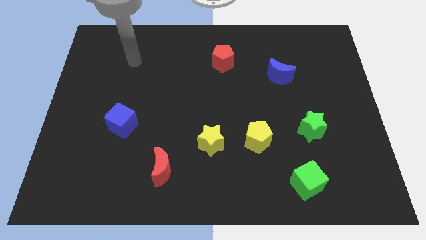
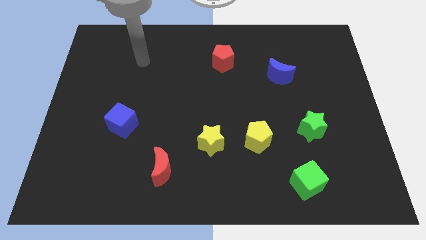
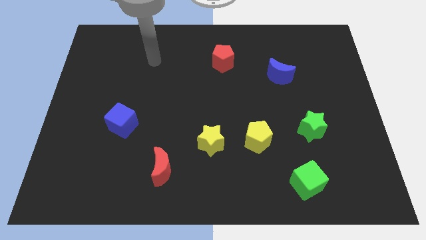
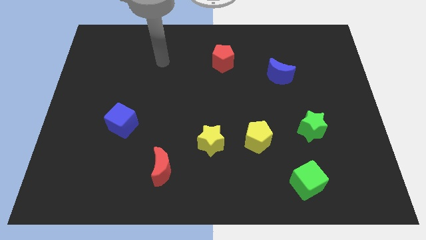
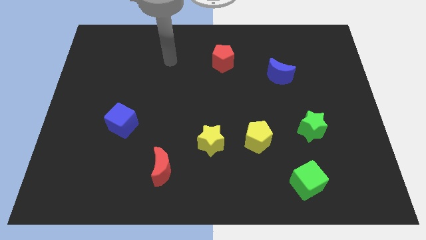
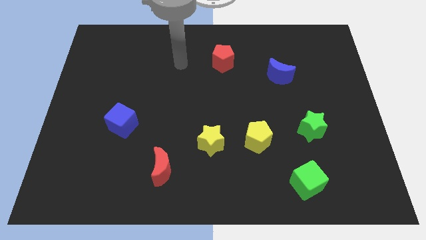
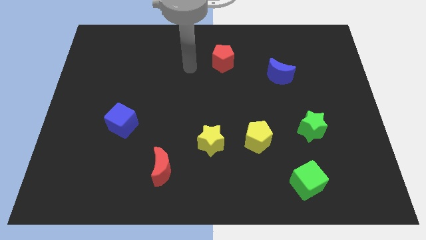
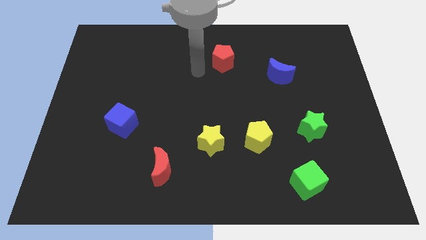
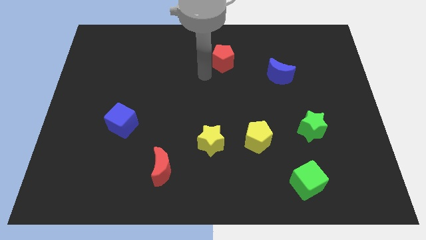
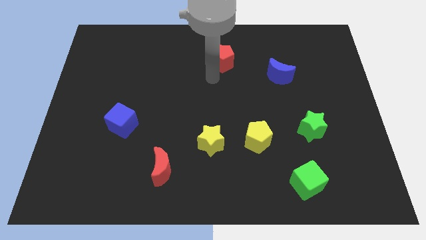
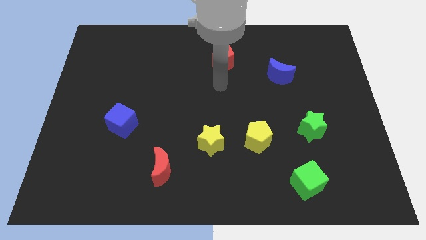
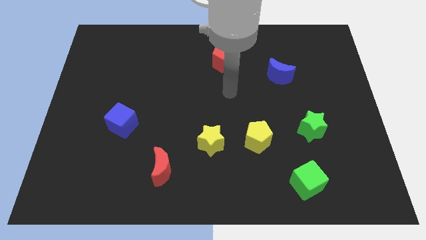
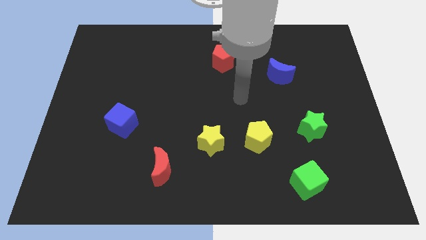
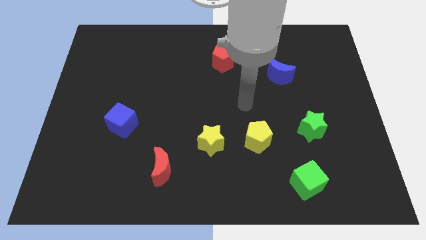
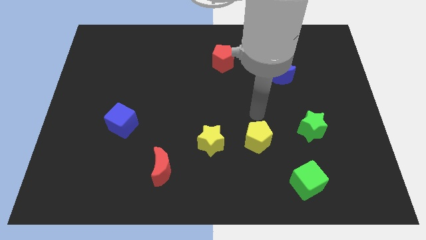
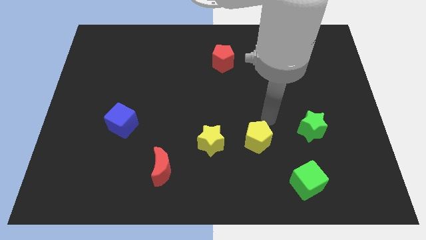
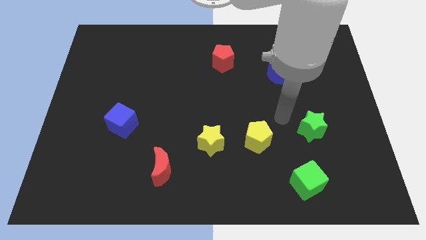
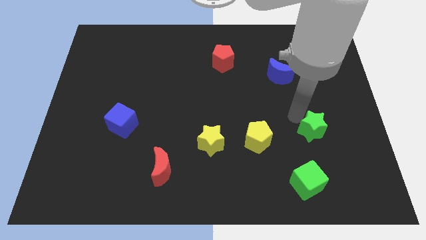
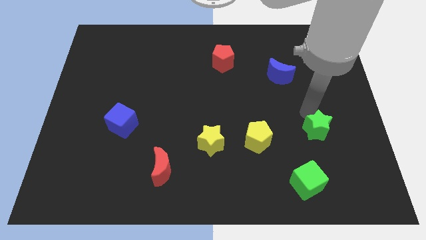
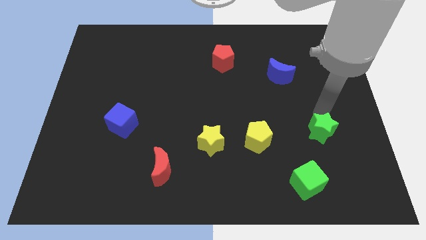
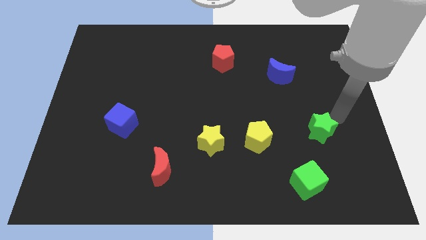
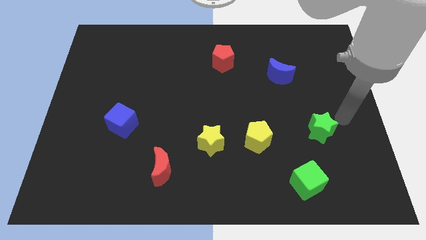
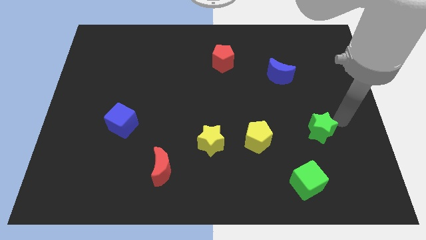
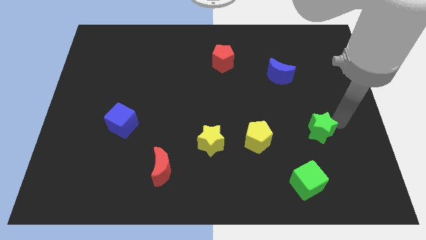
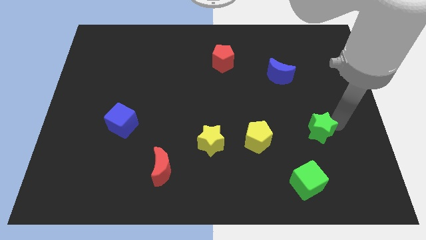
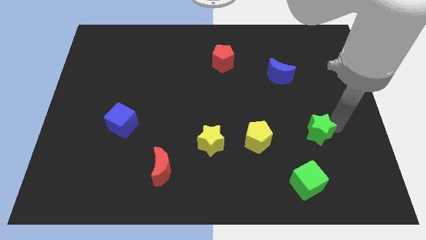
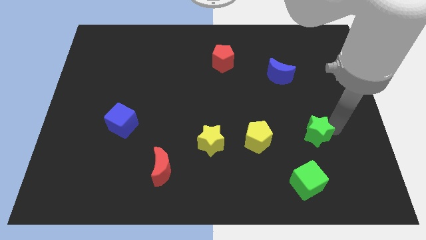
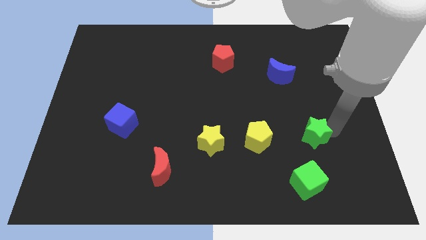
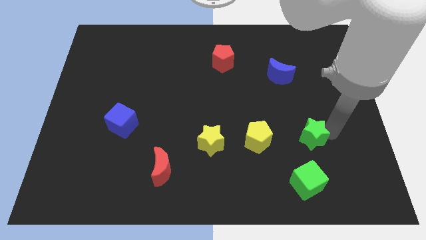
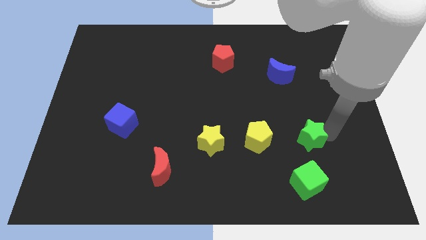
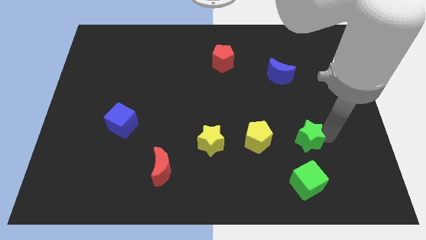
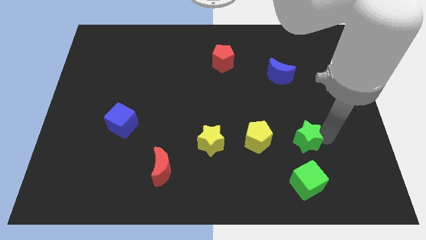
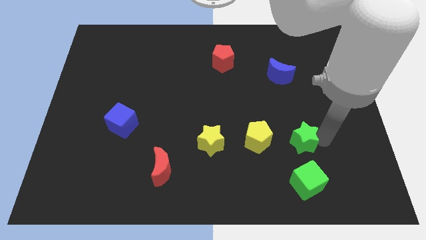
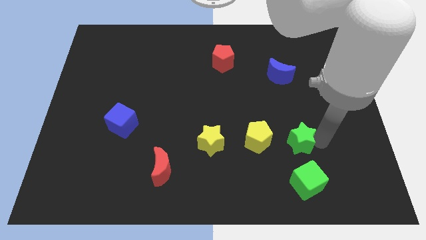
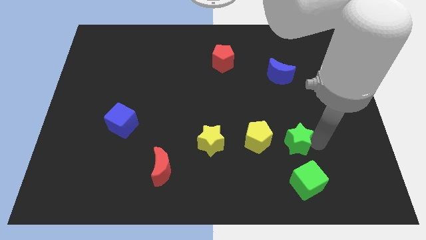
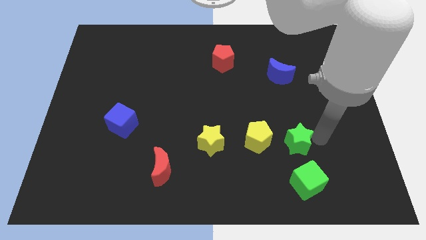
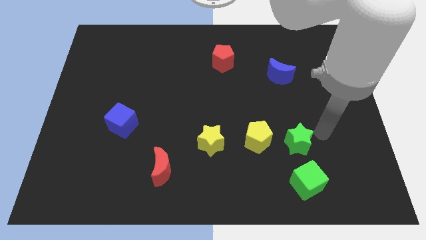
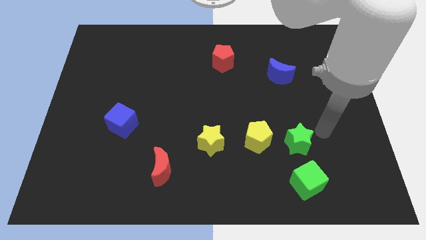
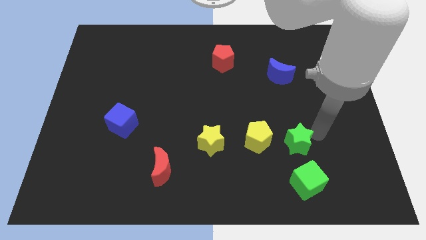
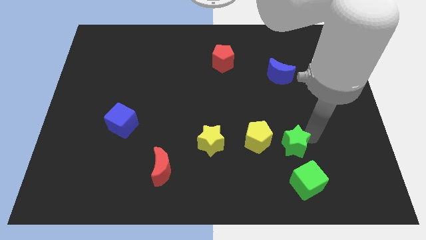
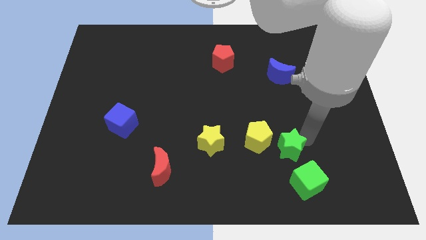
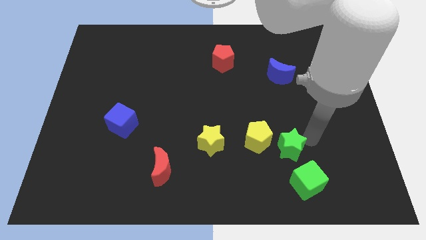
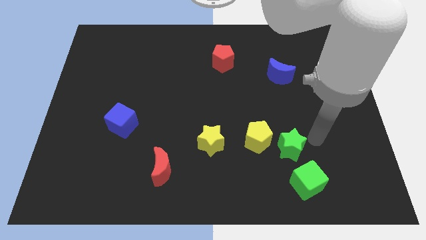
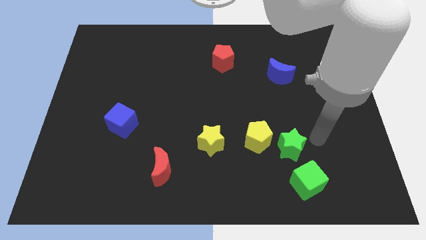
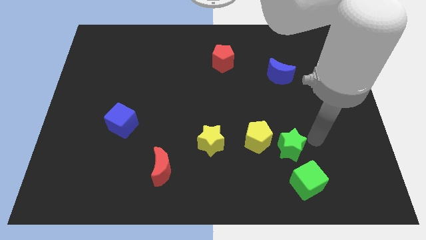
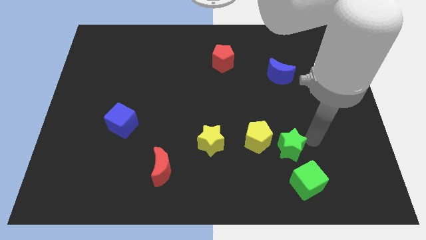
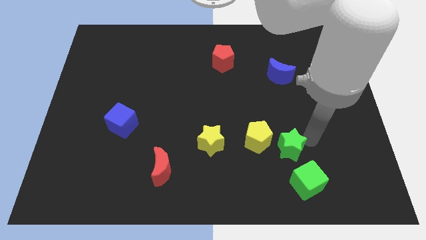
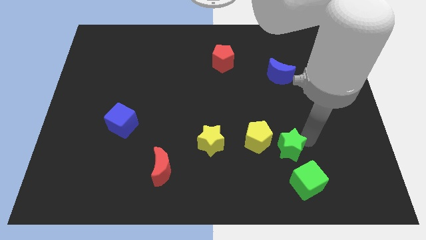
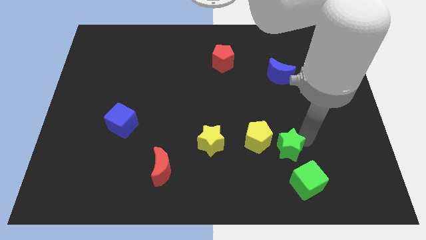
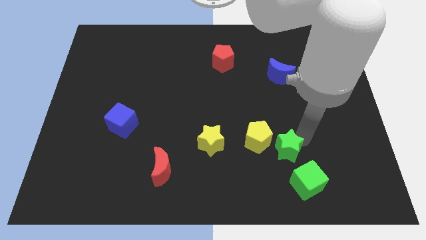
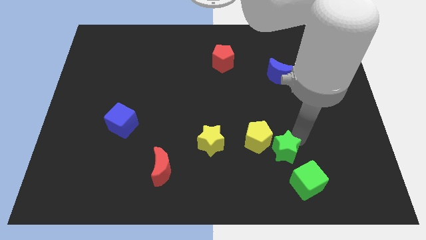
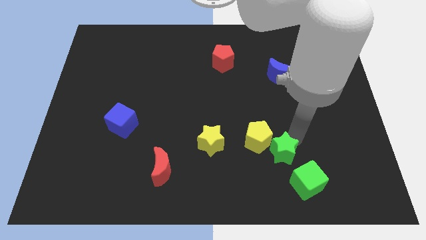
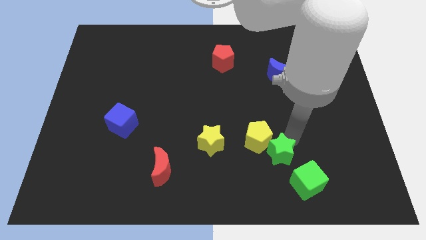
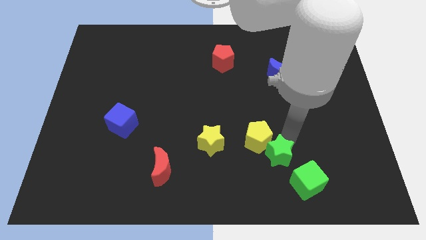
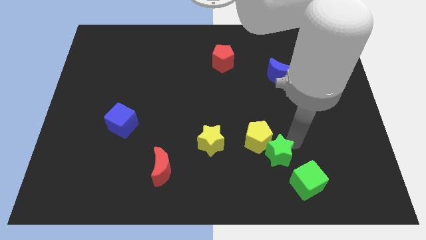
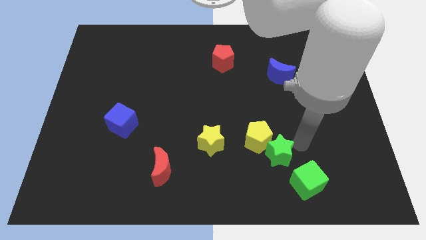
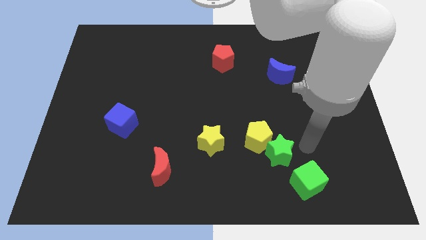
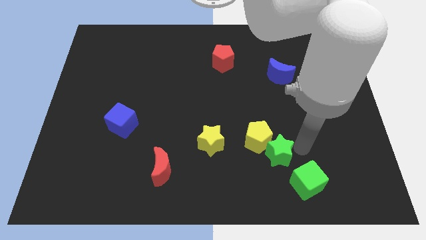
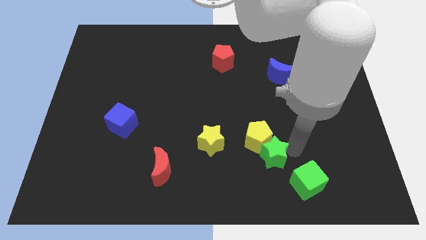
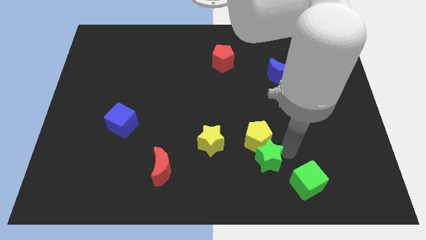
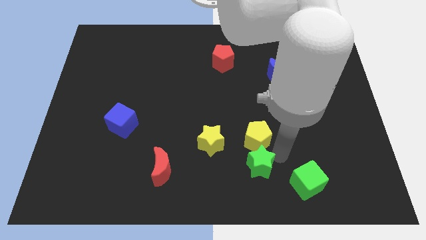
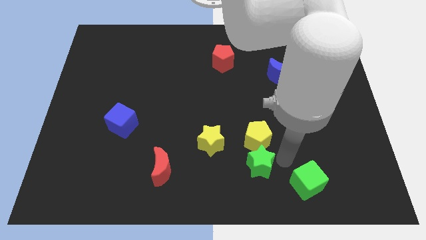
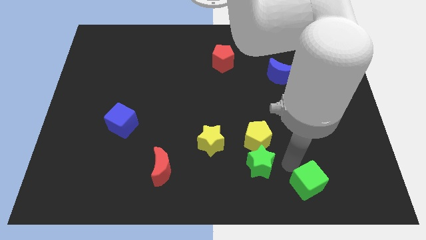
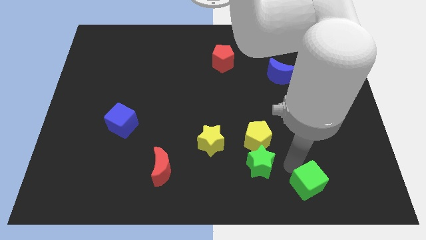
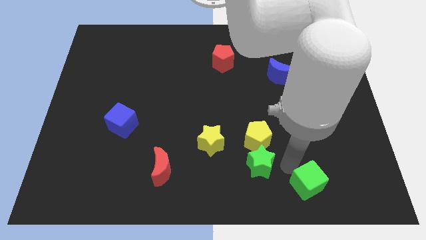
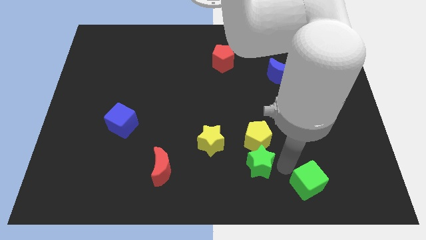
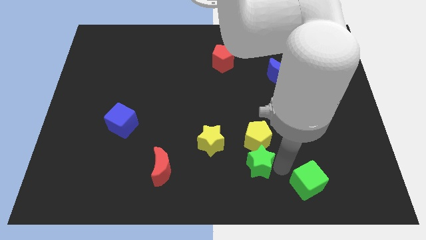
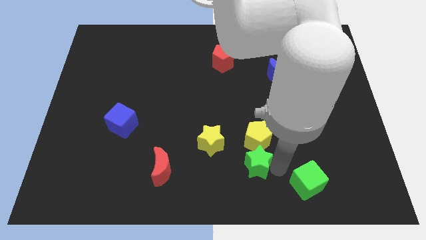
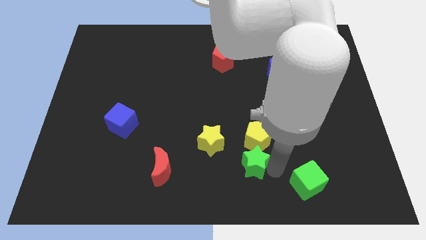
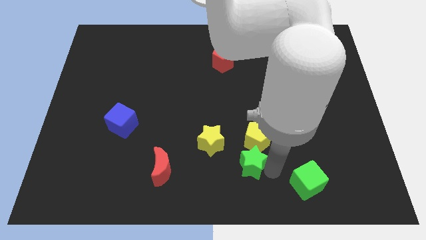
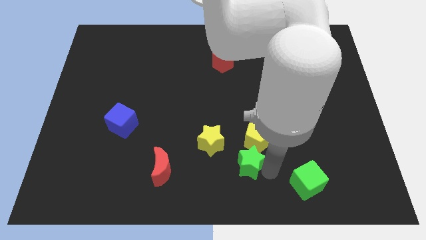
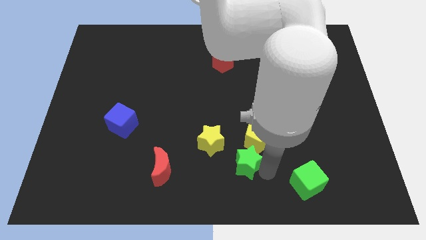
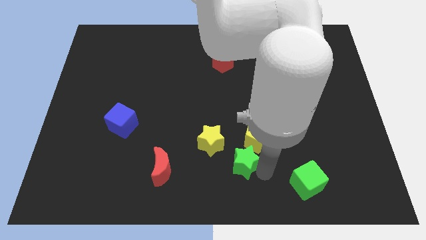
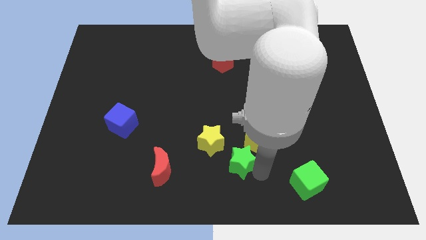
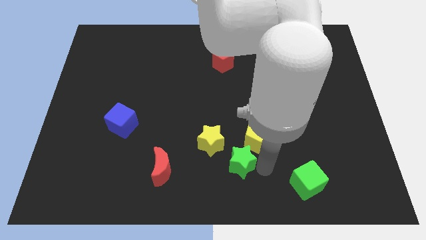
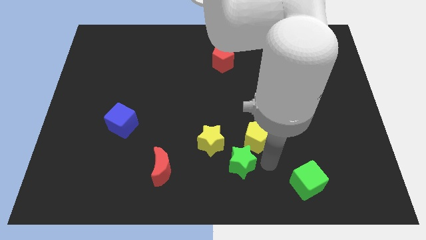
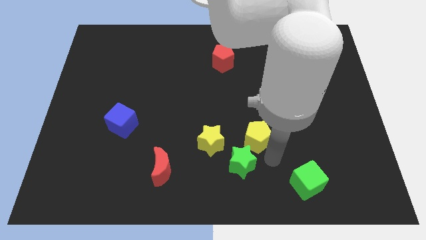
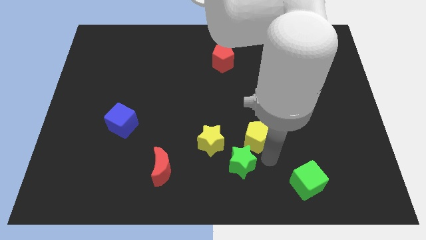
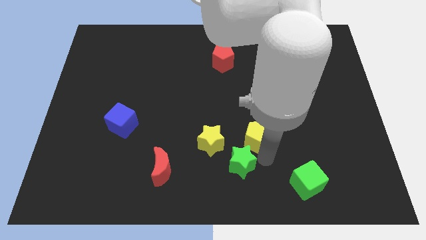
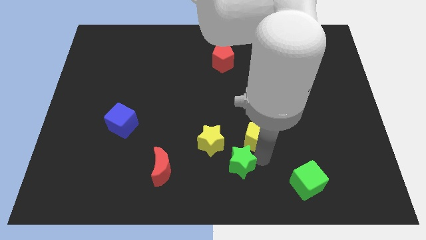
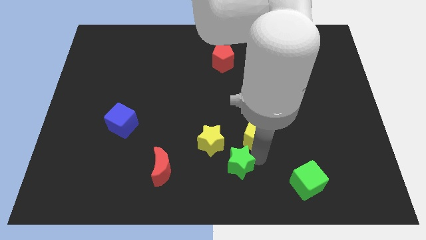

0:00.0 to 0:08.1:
push the green star to the right of the red moon
